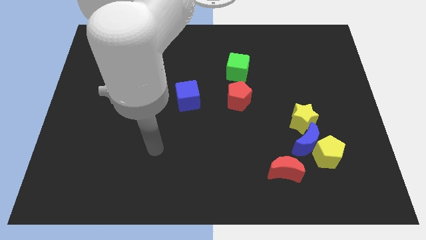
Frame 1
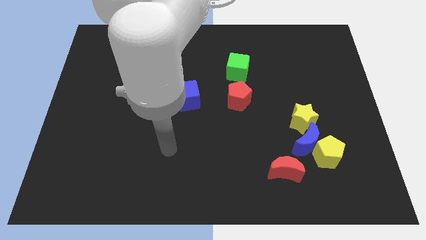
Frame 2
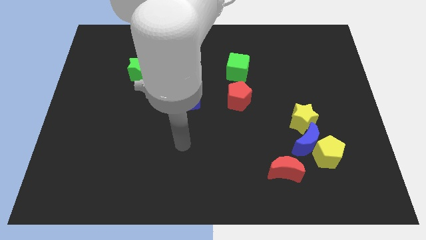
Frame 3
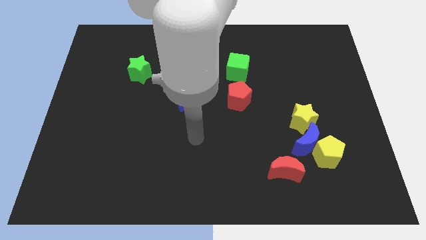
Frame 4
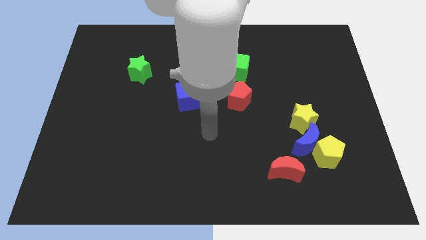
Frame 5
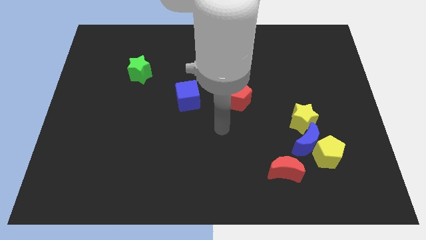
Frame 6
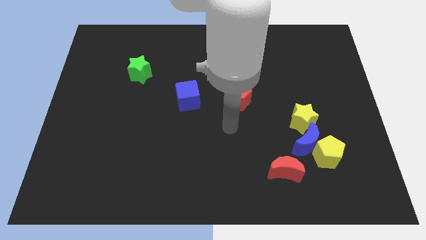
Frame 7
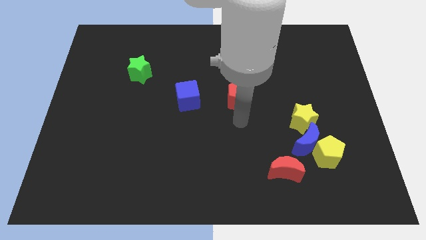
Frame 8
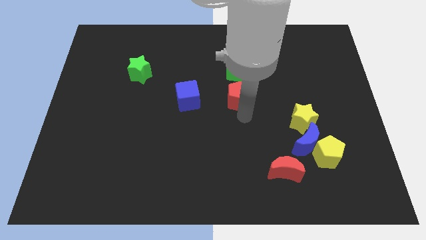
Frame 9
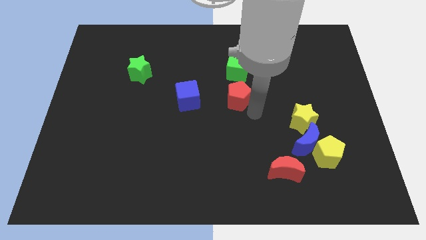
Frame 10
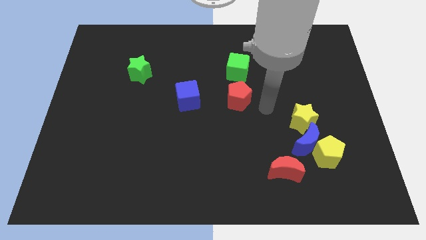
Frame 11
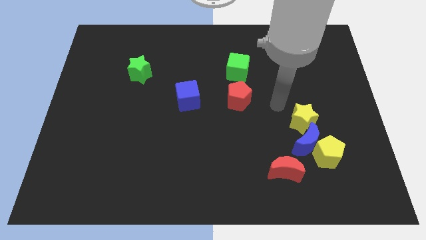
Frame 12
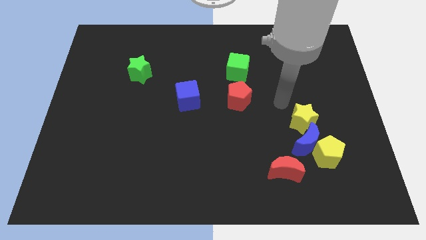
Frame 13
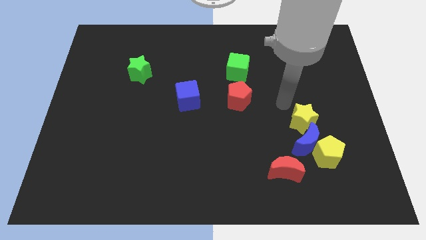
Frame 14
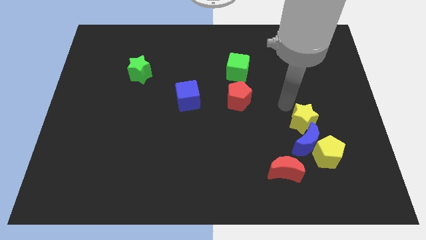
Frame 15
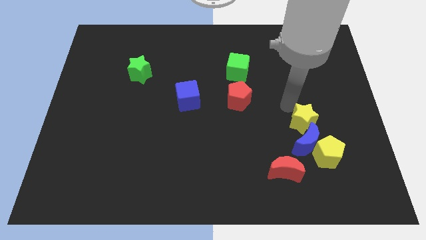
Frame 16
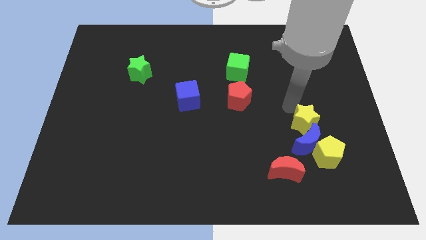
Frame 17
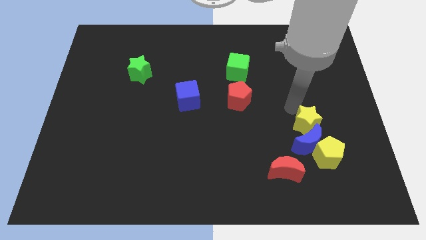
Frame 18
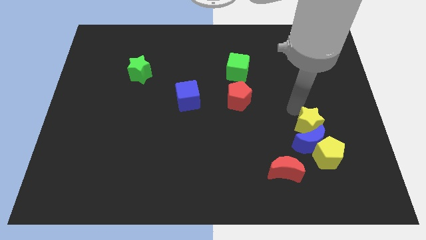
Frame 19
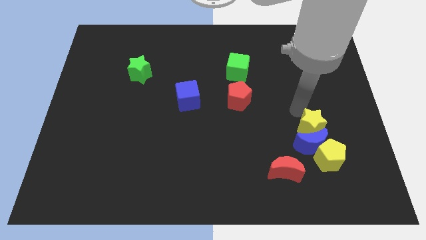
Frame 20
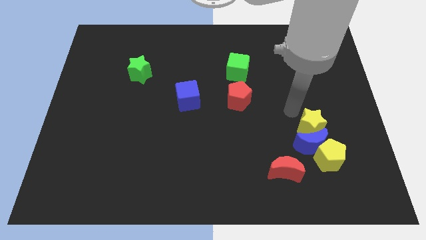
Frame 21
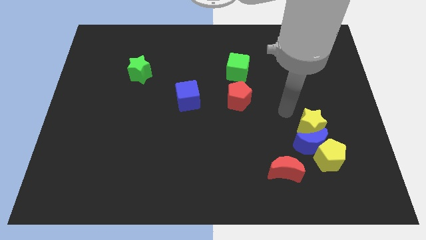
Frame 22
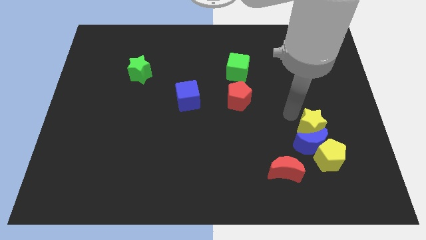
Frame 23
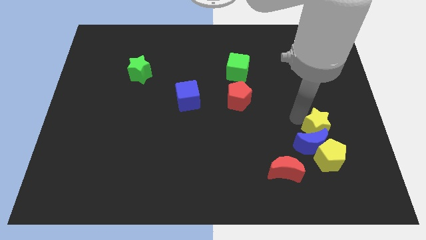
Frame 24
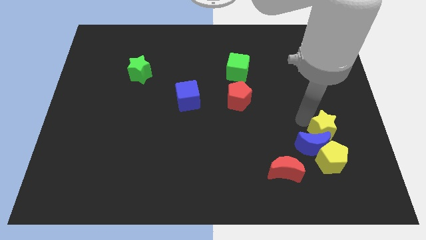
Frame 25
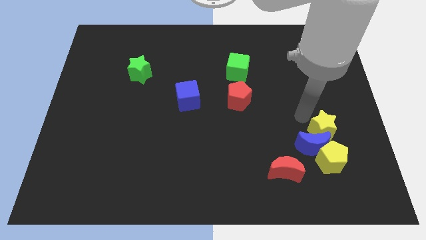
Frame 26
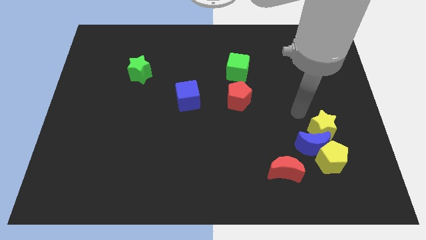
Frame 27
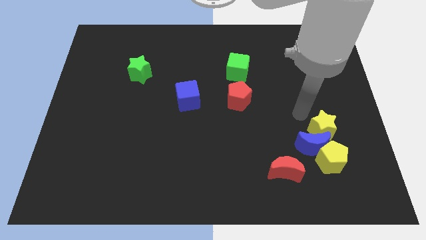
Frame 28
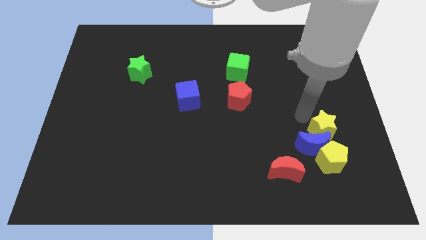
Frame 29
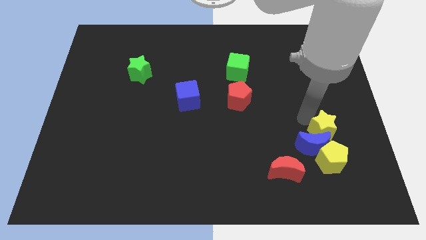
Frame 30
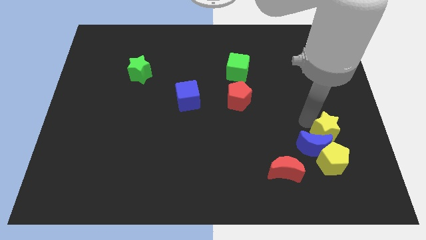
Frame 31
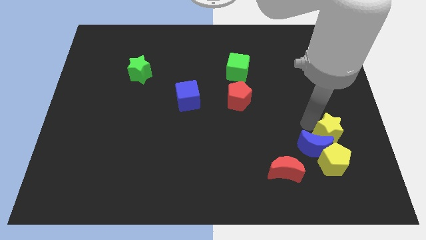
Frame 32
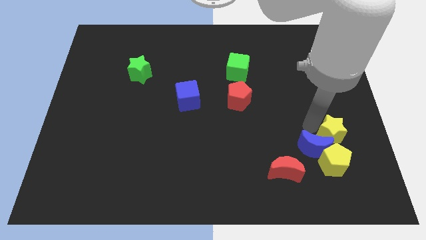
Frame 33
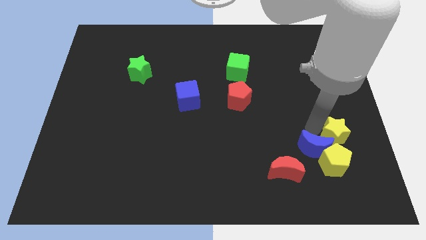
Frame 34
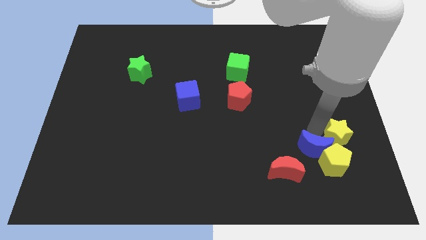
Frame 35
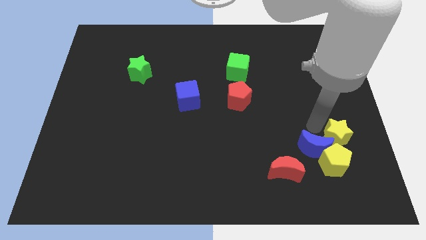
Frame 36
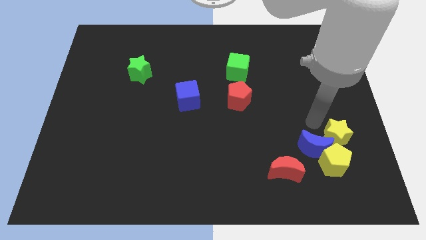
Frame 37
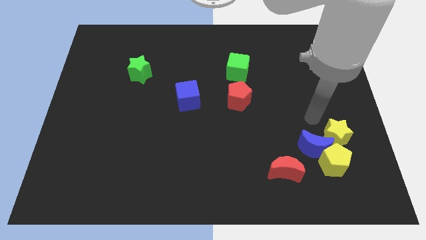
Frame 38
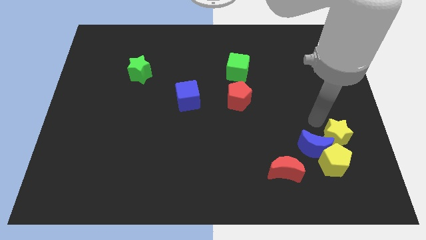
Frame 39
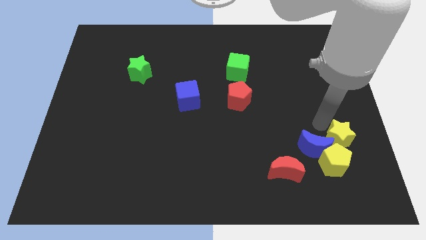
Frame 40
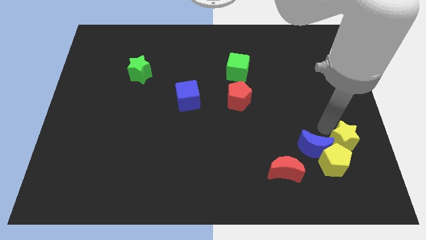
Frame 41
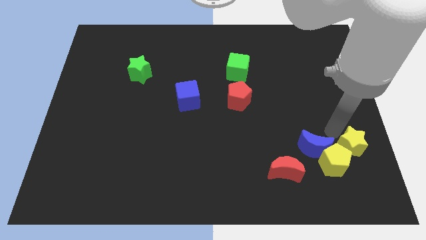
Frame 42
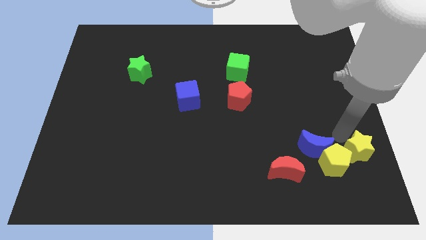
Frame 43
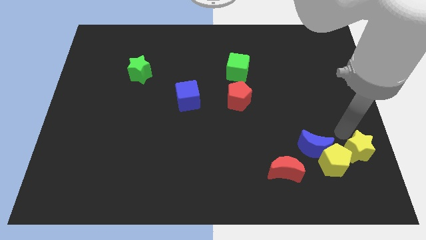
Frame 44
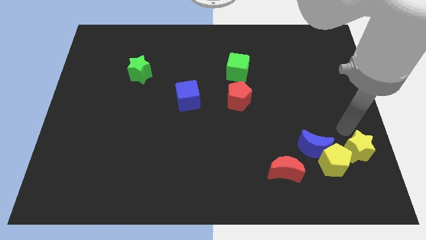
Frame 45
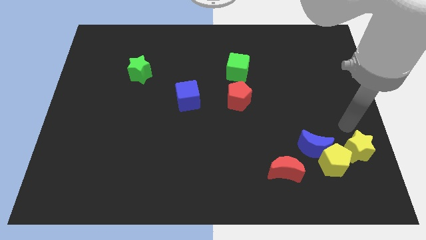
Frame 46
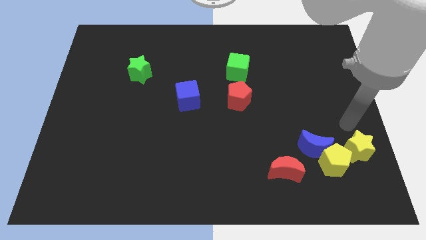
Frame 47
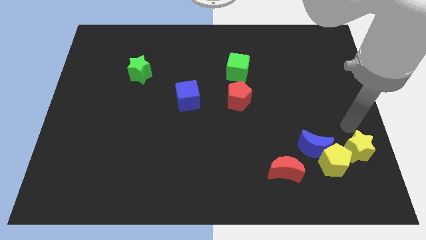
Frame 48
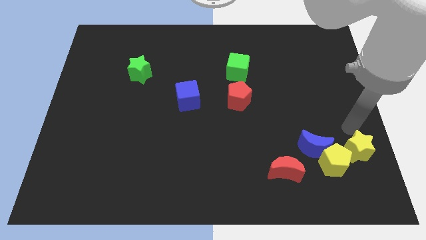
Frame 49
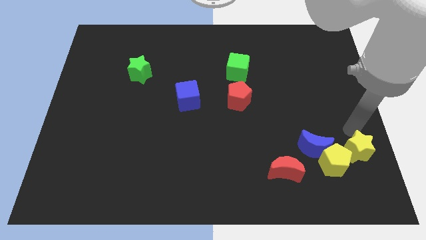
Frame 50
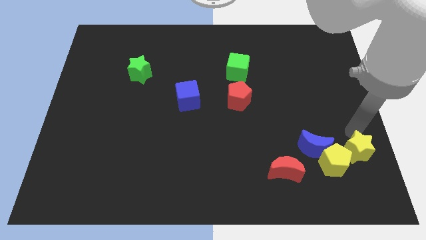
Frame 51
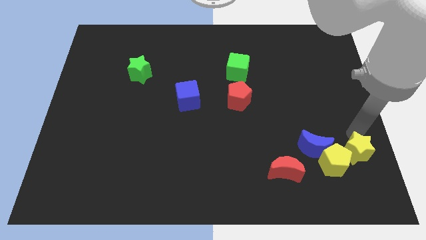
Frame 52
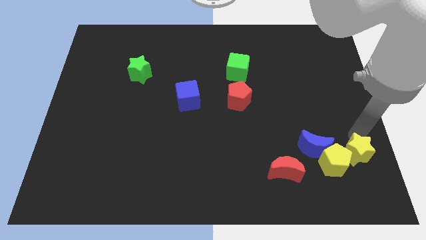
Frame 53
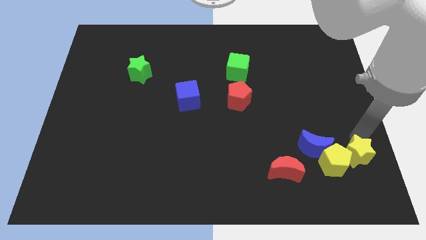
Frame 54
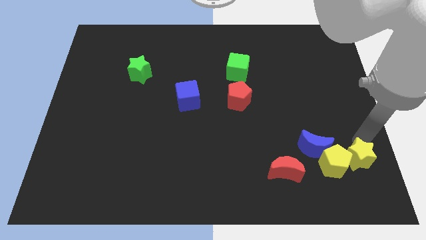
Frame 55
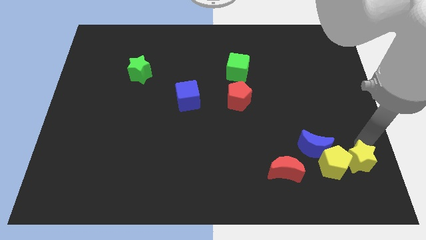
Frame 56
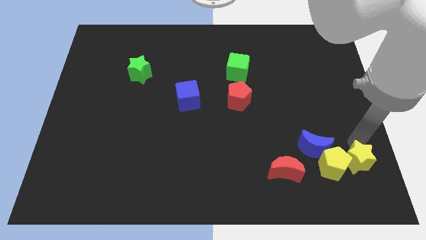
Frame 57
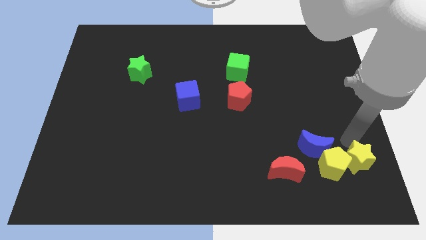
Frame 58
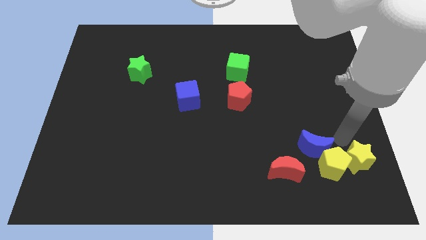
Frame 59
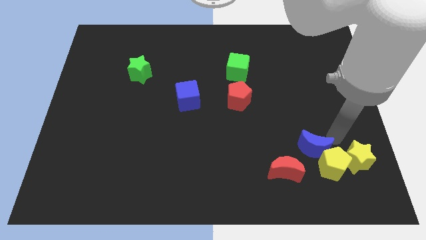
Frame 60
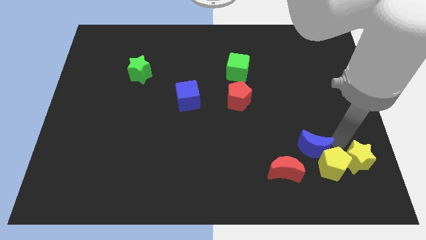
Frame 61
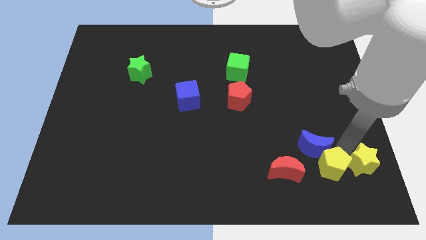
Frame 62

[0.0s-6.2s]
push the yellow star to the bottom right corner
